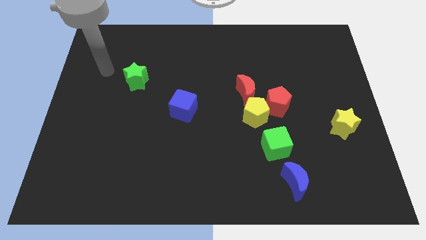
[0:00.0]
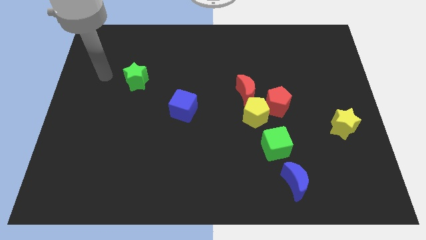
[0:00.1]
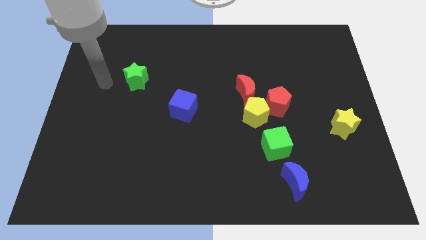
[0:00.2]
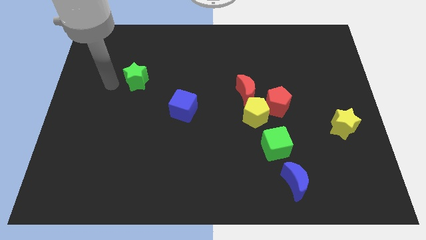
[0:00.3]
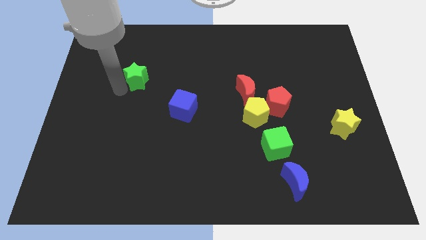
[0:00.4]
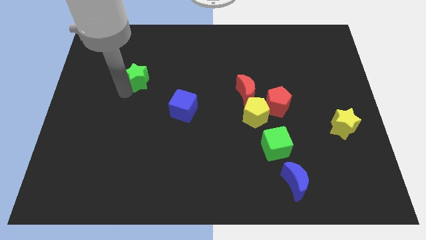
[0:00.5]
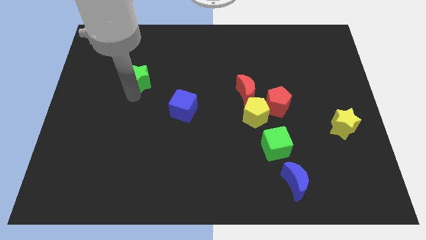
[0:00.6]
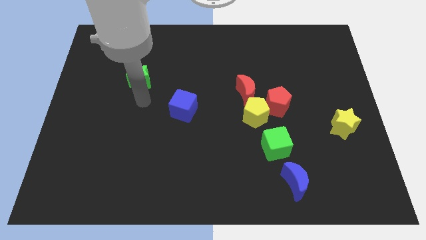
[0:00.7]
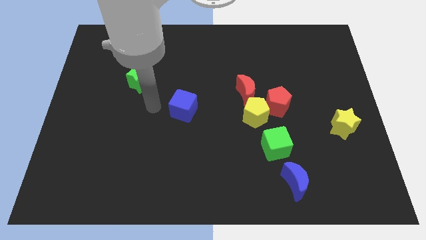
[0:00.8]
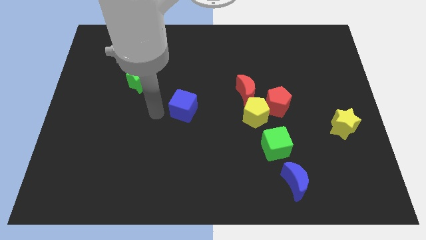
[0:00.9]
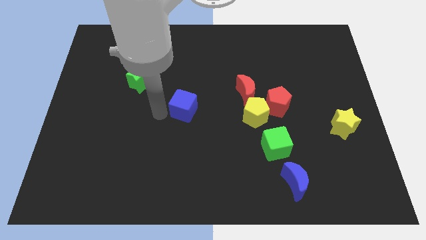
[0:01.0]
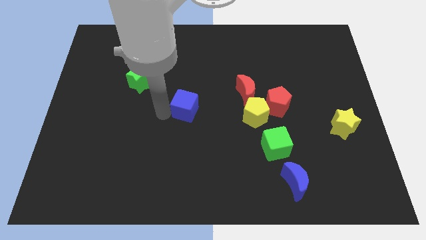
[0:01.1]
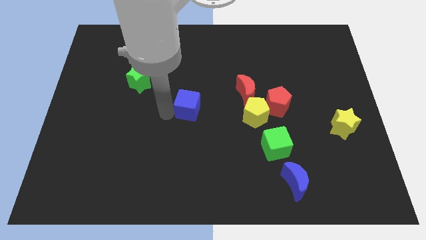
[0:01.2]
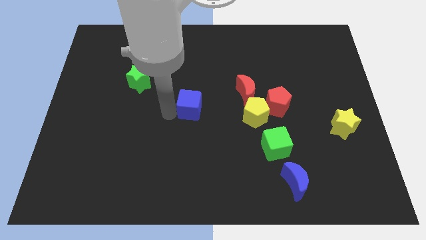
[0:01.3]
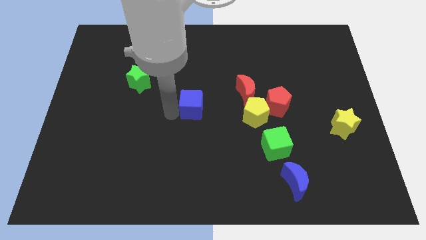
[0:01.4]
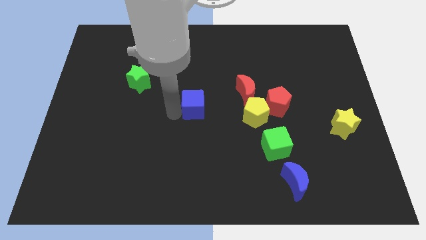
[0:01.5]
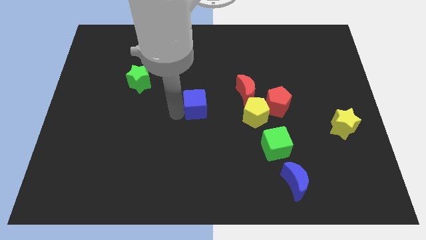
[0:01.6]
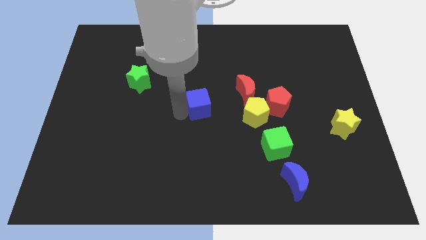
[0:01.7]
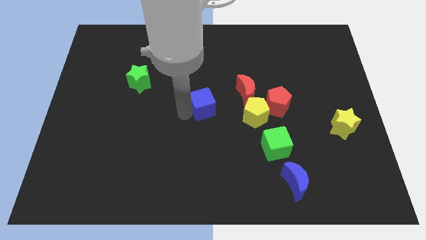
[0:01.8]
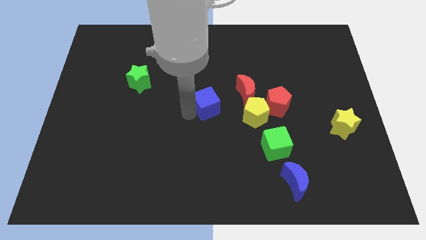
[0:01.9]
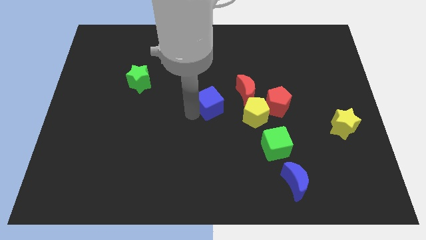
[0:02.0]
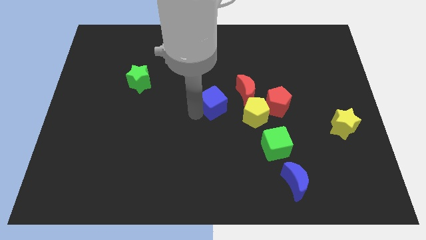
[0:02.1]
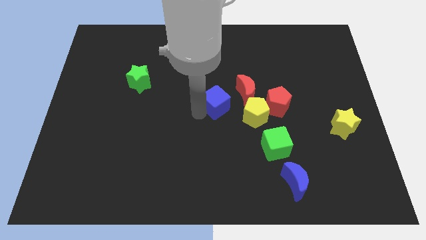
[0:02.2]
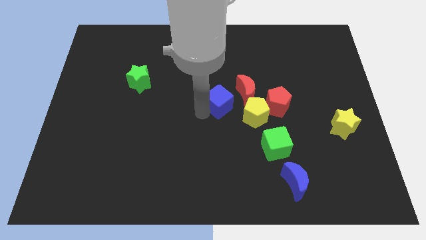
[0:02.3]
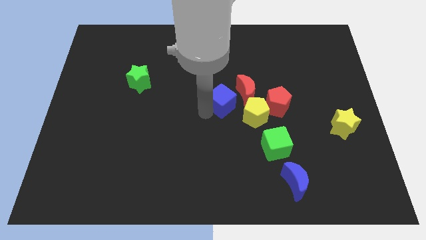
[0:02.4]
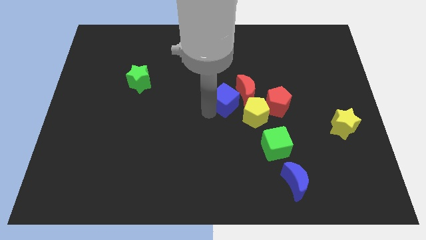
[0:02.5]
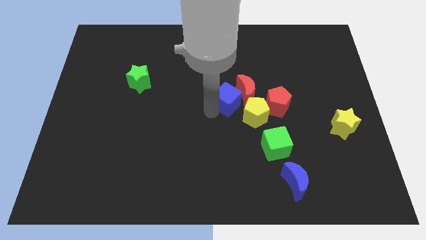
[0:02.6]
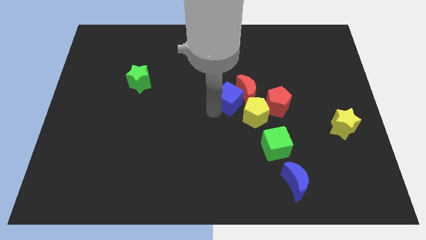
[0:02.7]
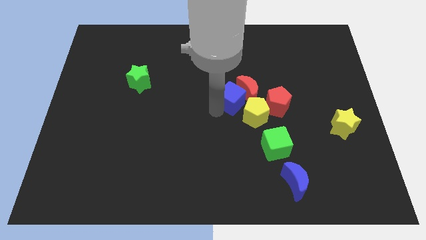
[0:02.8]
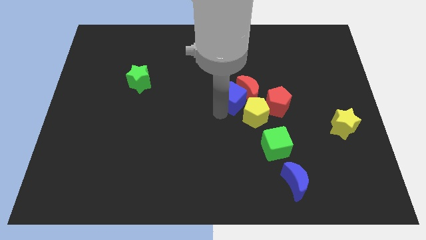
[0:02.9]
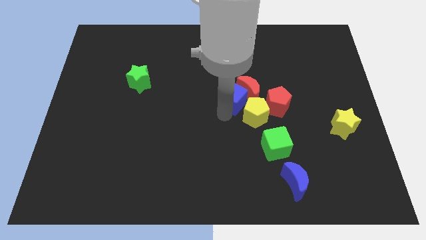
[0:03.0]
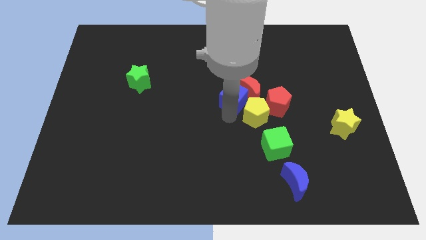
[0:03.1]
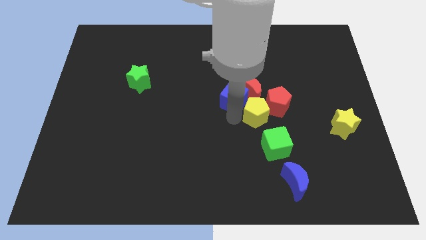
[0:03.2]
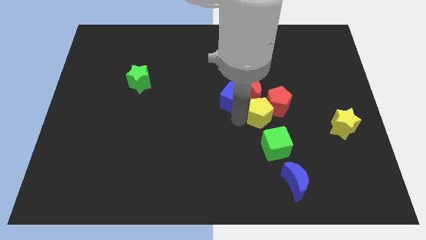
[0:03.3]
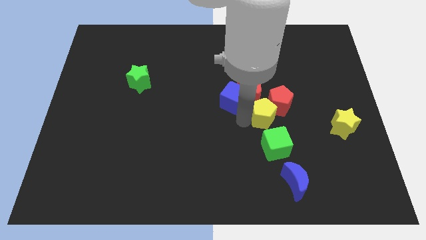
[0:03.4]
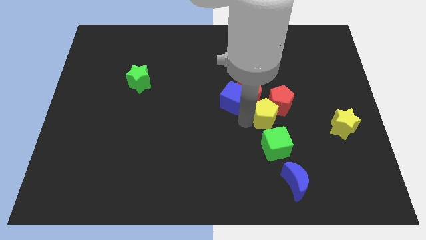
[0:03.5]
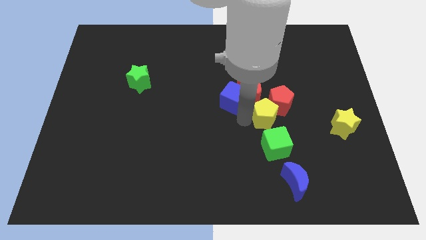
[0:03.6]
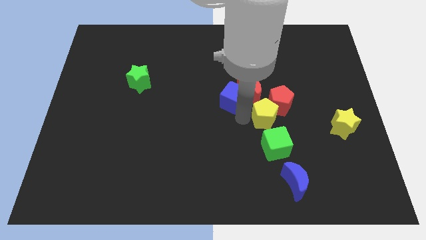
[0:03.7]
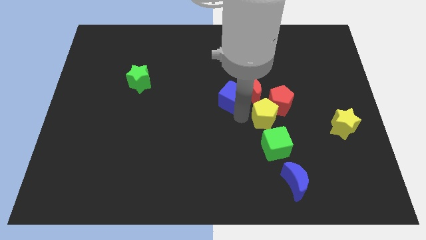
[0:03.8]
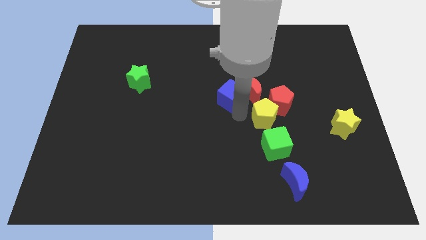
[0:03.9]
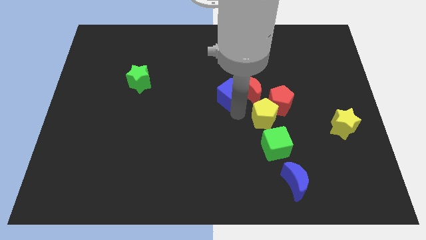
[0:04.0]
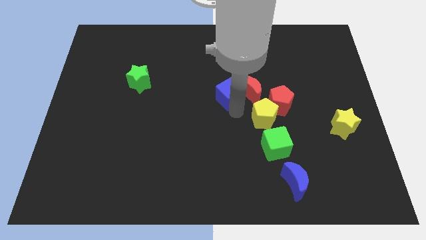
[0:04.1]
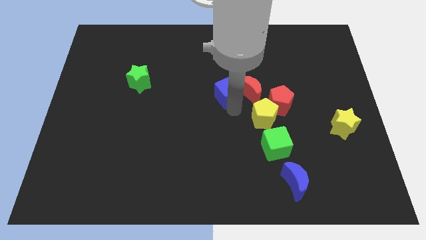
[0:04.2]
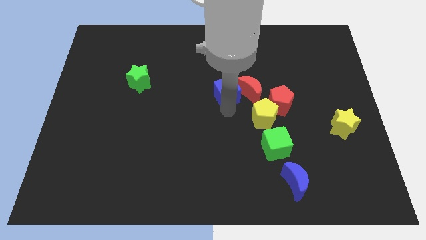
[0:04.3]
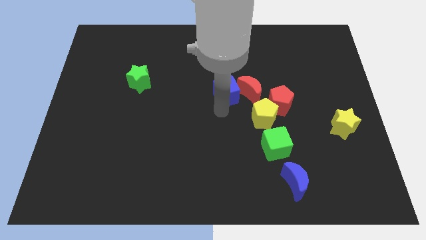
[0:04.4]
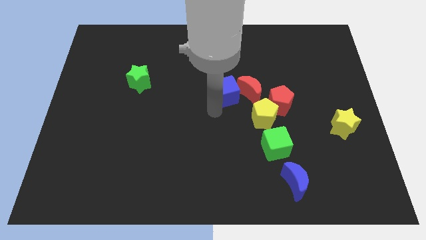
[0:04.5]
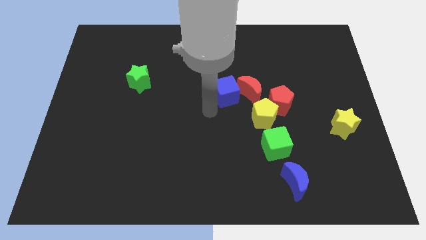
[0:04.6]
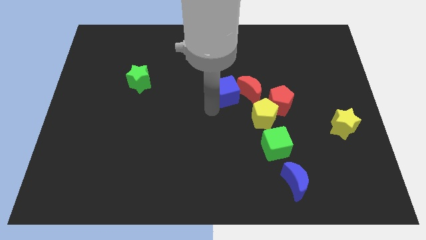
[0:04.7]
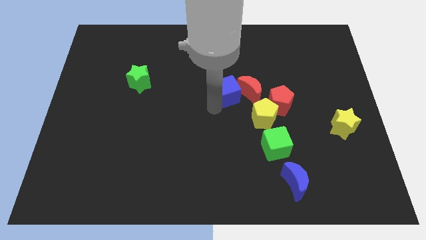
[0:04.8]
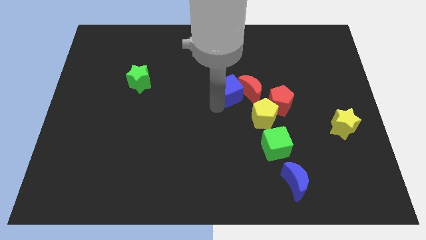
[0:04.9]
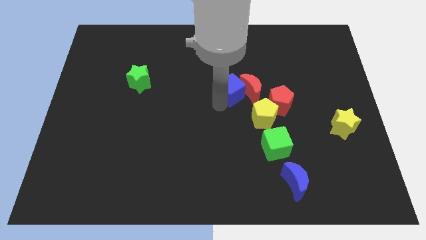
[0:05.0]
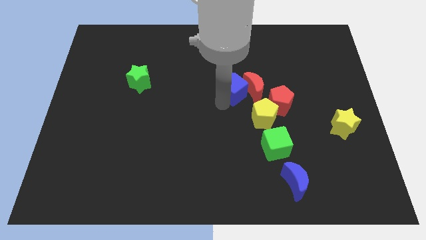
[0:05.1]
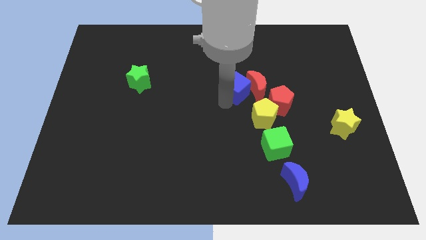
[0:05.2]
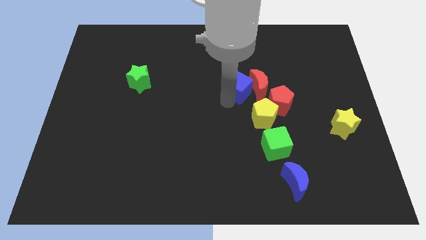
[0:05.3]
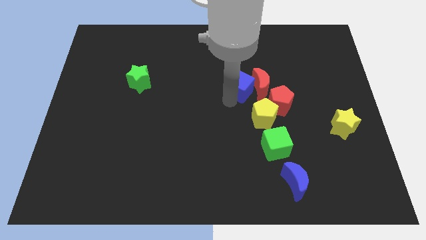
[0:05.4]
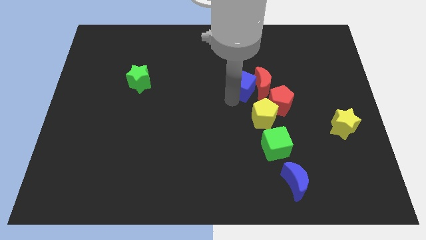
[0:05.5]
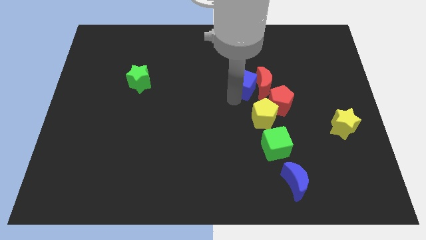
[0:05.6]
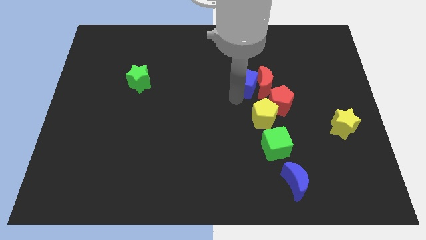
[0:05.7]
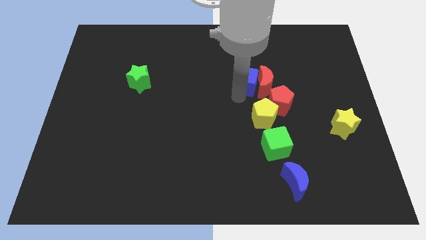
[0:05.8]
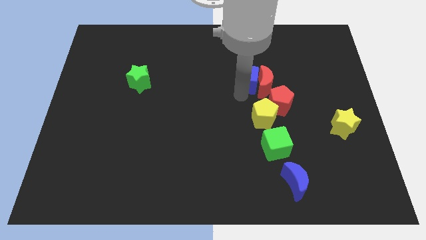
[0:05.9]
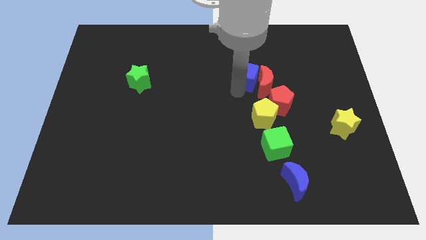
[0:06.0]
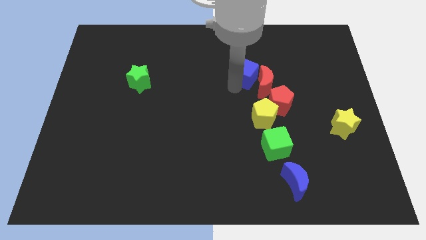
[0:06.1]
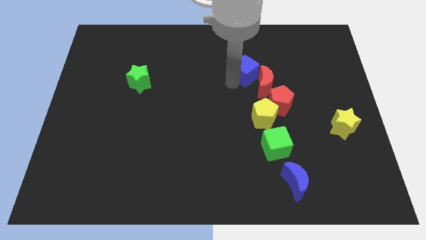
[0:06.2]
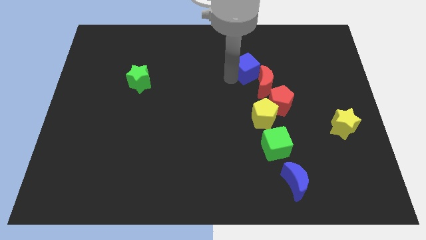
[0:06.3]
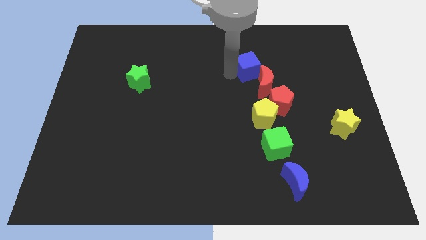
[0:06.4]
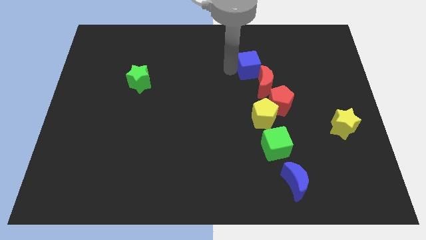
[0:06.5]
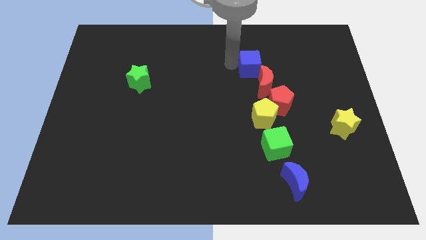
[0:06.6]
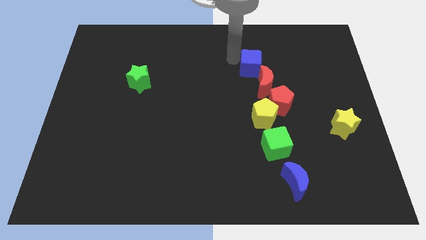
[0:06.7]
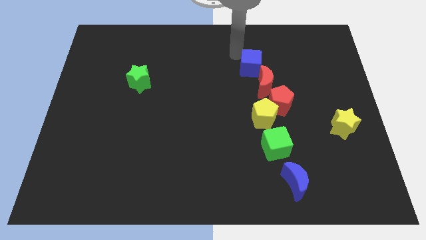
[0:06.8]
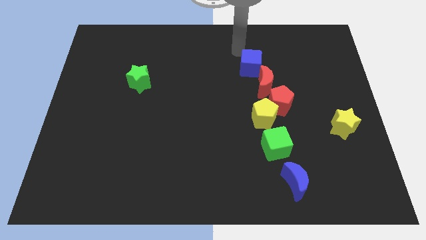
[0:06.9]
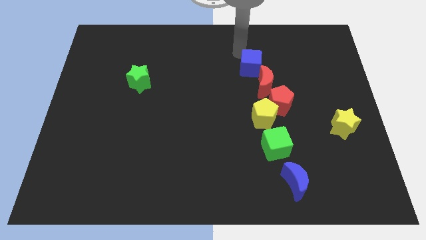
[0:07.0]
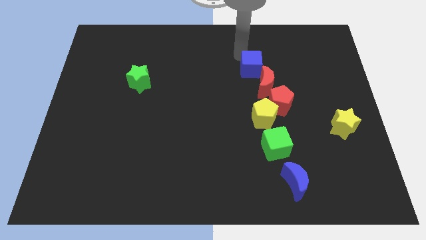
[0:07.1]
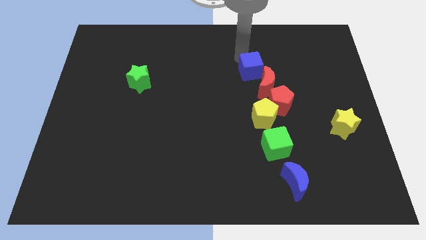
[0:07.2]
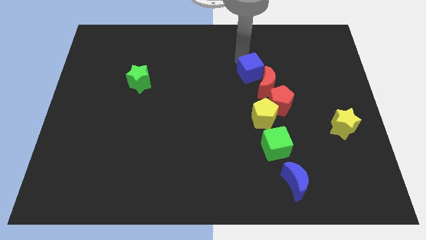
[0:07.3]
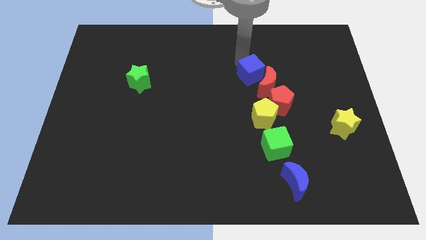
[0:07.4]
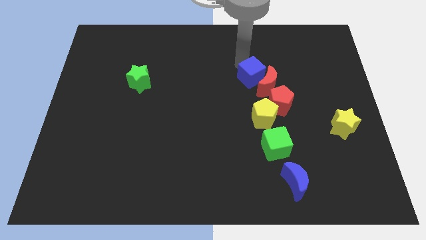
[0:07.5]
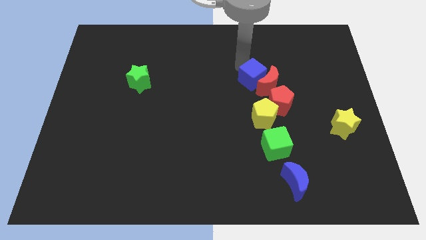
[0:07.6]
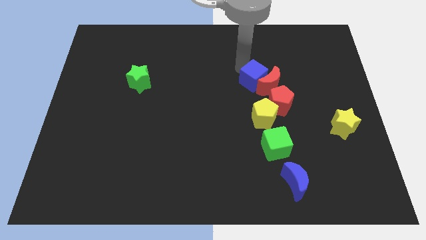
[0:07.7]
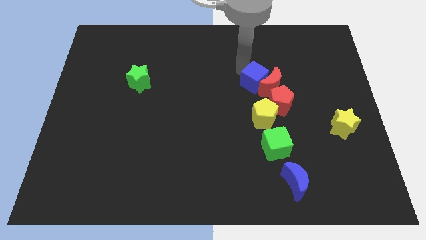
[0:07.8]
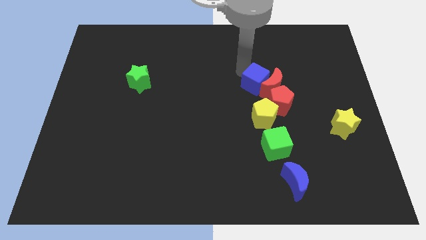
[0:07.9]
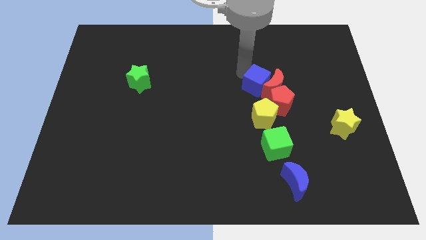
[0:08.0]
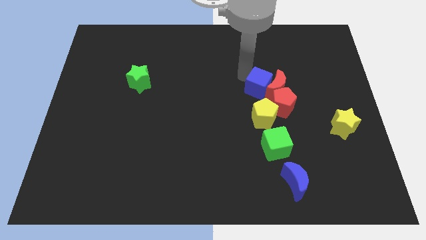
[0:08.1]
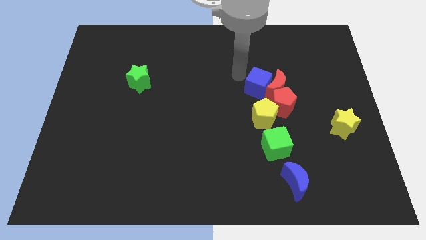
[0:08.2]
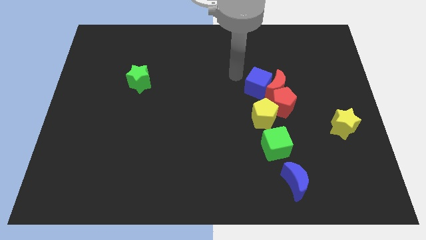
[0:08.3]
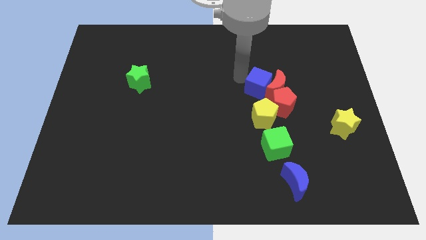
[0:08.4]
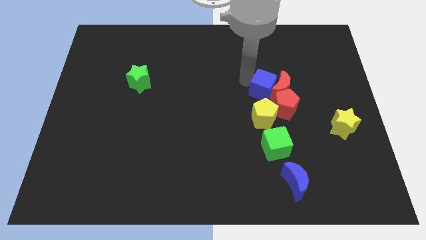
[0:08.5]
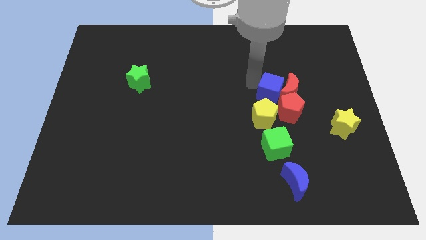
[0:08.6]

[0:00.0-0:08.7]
slide the blue cube to the top right of the yellow pentagon
